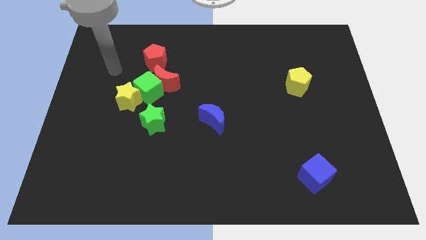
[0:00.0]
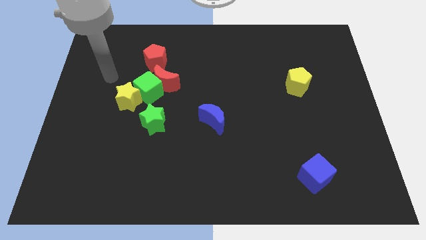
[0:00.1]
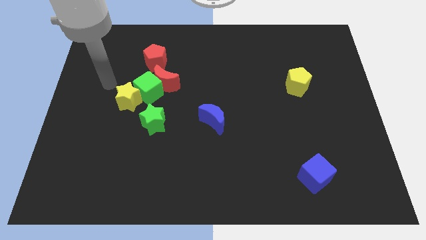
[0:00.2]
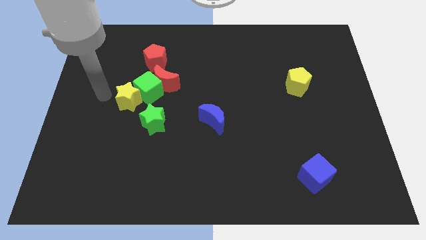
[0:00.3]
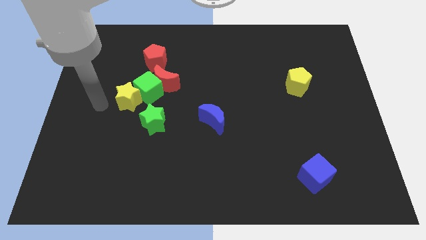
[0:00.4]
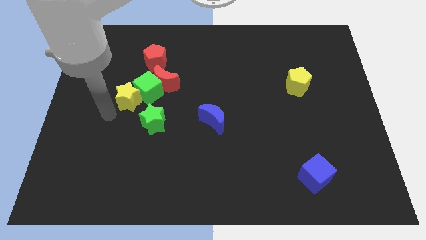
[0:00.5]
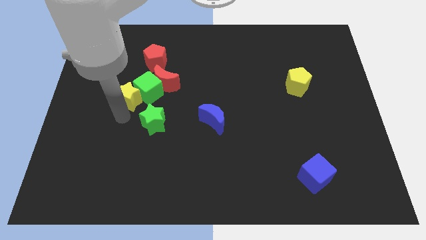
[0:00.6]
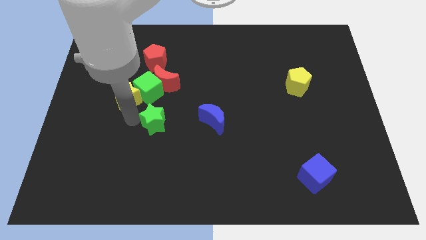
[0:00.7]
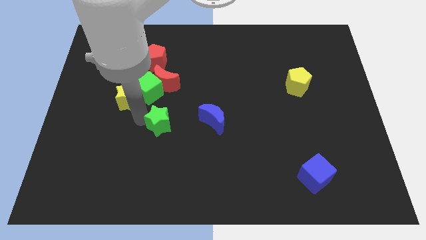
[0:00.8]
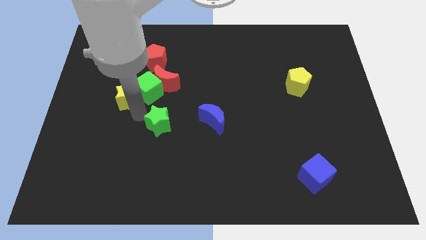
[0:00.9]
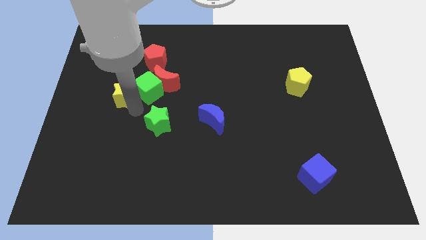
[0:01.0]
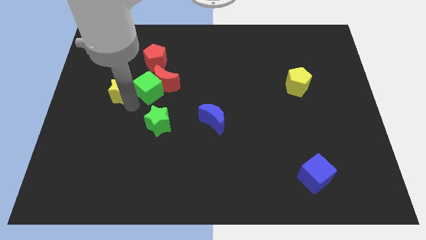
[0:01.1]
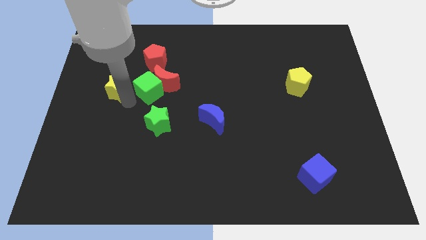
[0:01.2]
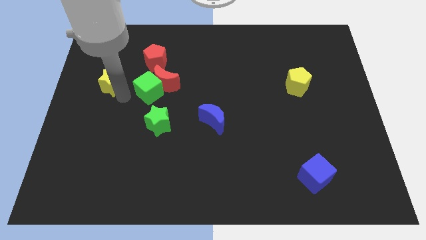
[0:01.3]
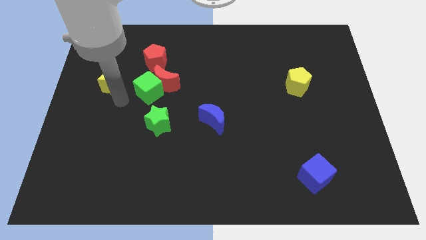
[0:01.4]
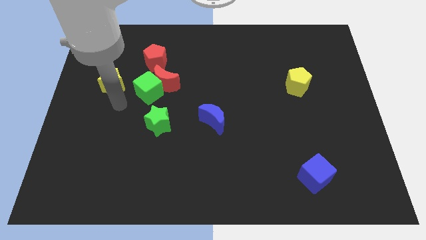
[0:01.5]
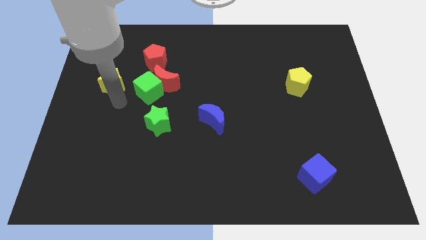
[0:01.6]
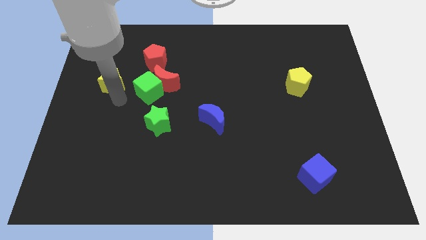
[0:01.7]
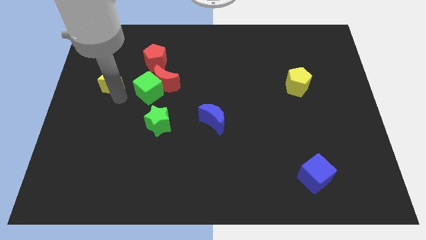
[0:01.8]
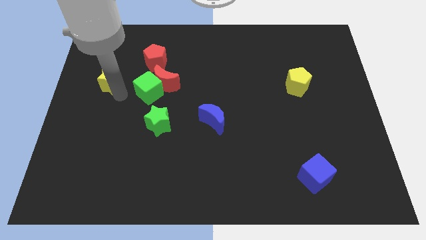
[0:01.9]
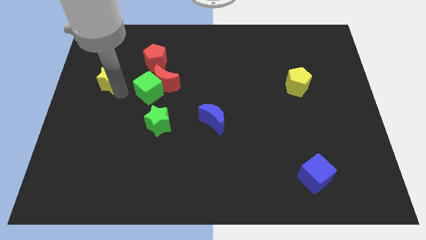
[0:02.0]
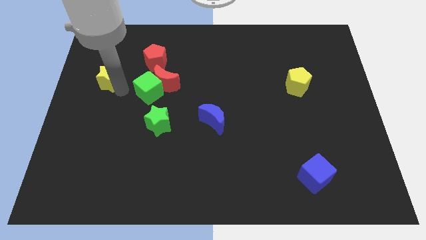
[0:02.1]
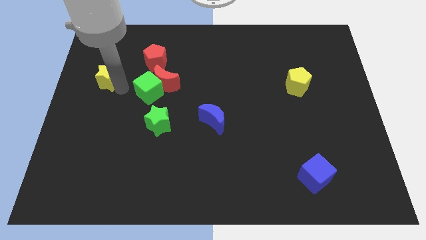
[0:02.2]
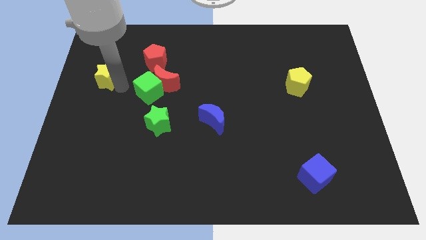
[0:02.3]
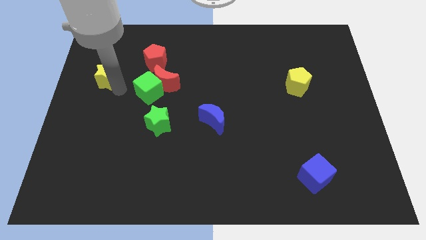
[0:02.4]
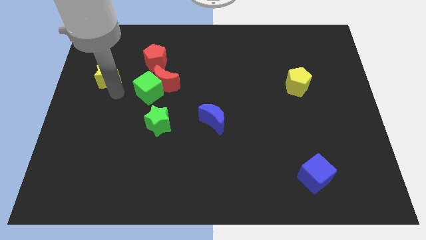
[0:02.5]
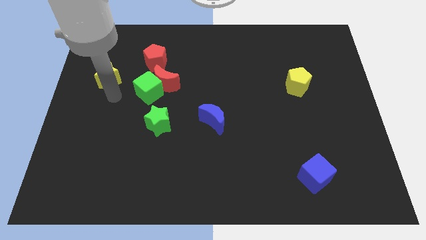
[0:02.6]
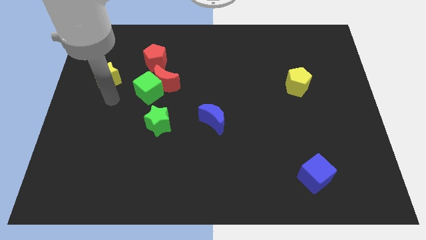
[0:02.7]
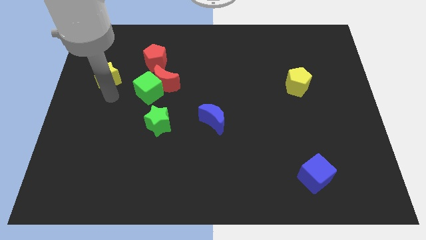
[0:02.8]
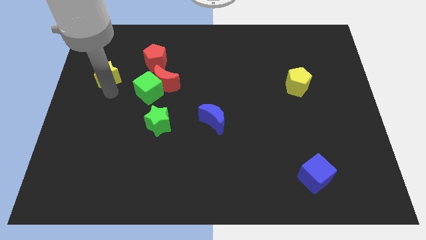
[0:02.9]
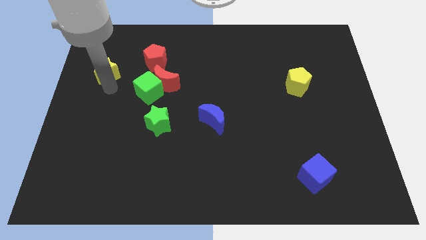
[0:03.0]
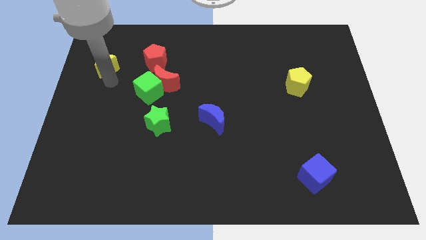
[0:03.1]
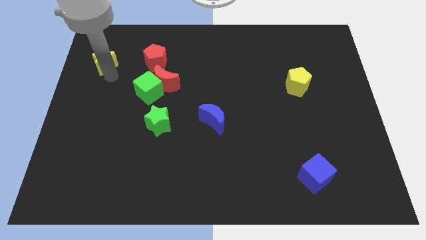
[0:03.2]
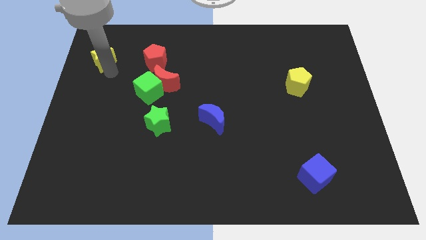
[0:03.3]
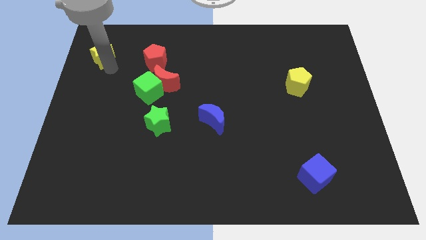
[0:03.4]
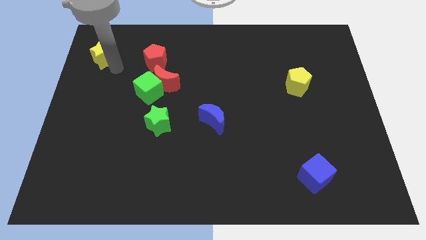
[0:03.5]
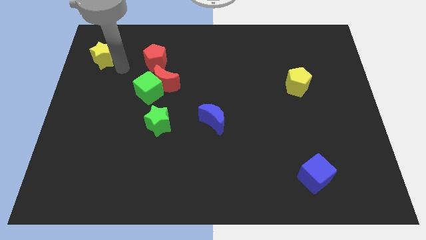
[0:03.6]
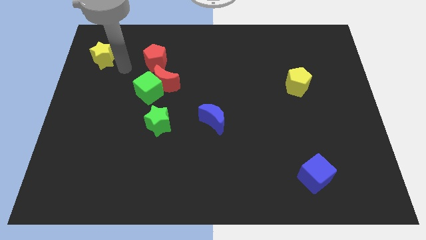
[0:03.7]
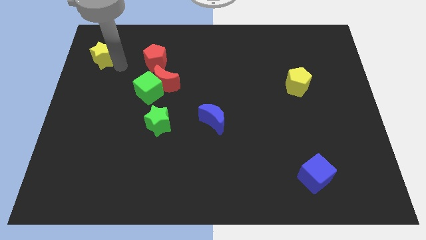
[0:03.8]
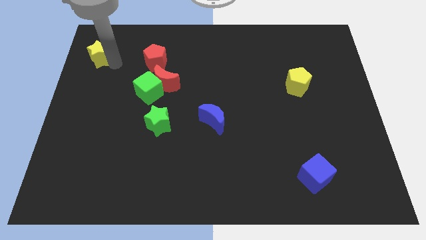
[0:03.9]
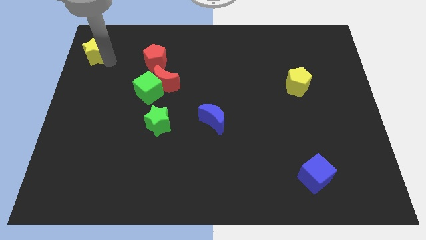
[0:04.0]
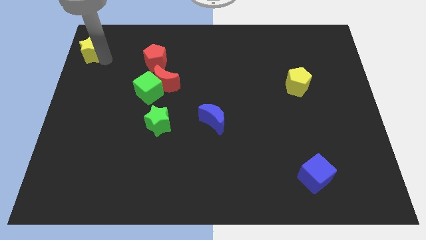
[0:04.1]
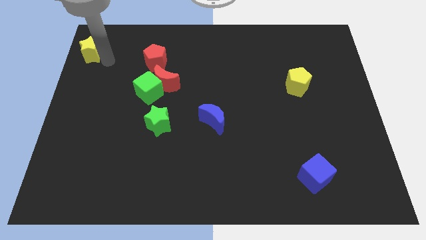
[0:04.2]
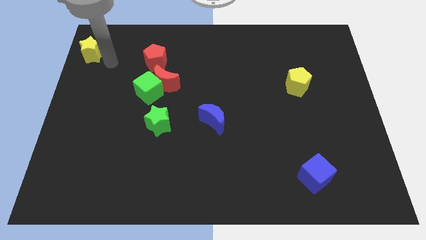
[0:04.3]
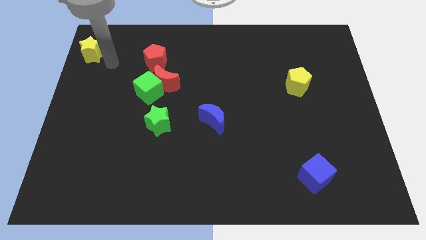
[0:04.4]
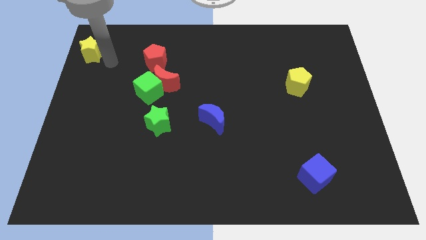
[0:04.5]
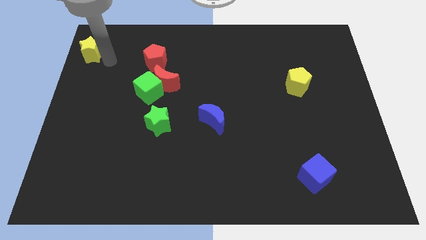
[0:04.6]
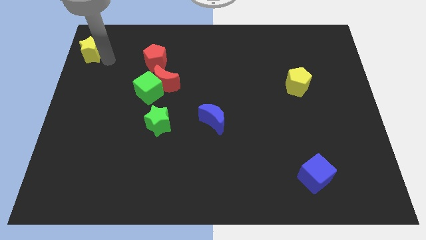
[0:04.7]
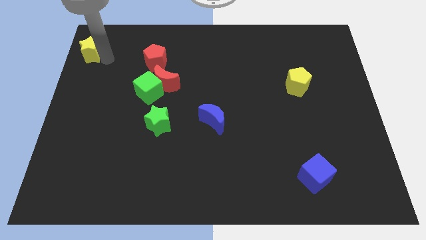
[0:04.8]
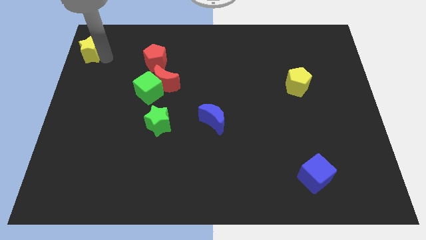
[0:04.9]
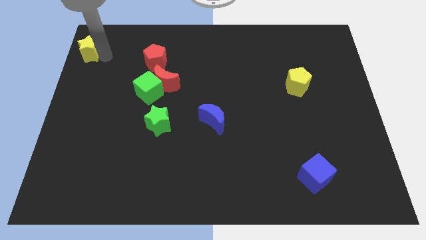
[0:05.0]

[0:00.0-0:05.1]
move the yellow star to the top left

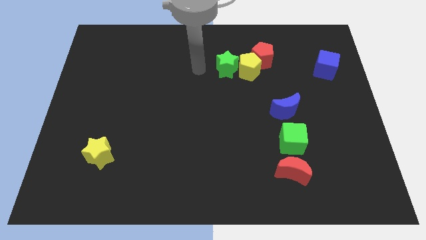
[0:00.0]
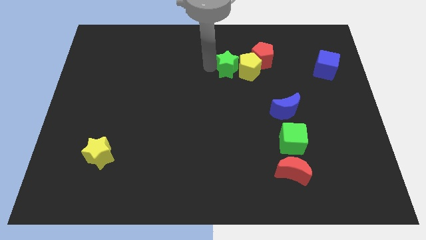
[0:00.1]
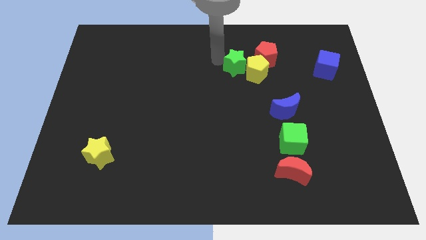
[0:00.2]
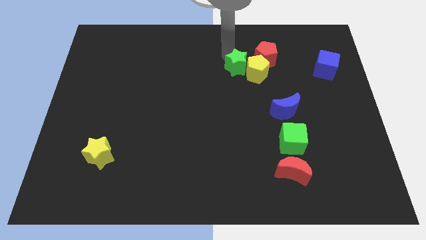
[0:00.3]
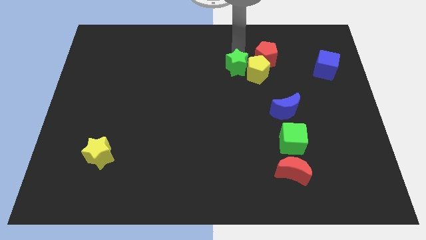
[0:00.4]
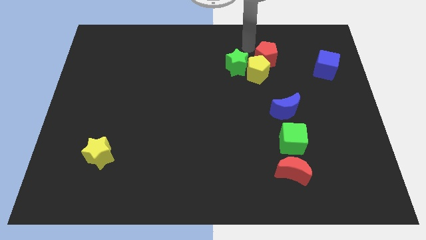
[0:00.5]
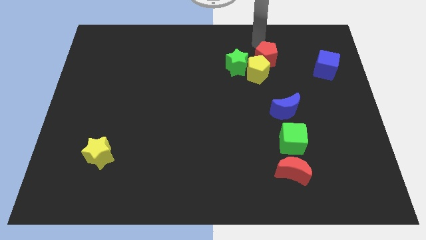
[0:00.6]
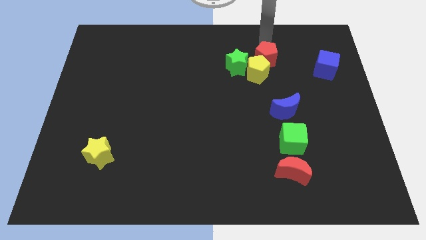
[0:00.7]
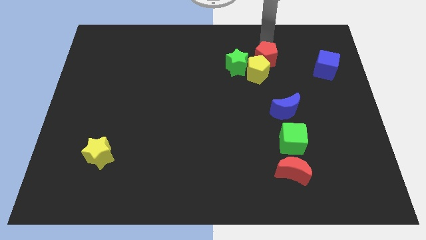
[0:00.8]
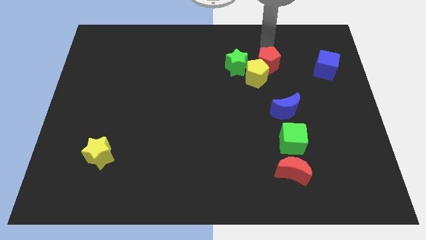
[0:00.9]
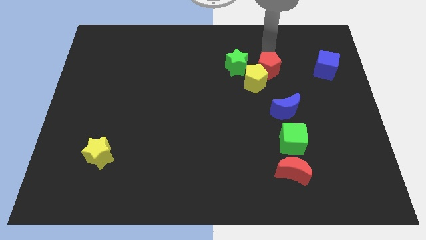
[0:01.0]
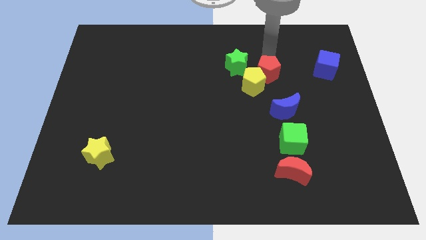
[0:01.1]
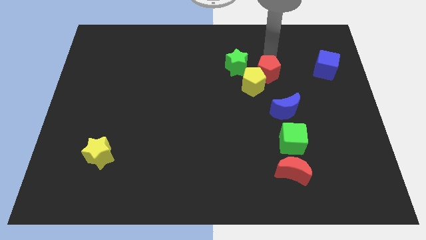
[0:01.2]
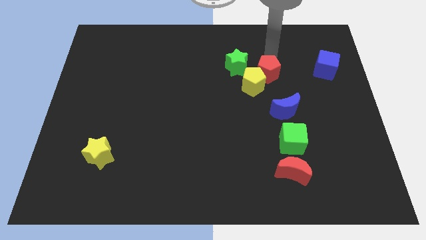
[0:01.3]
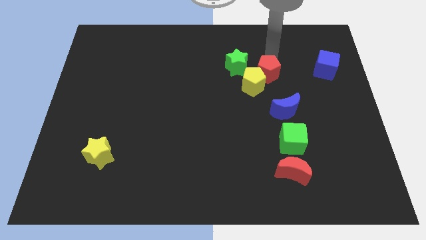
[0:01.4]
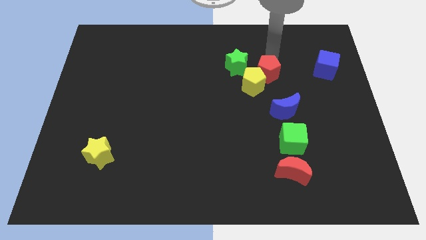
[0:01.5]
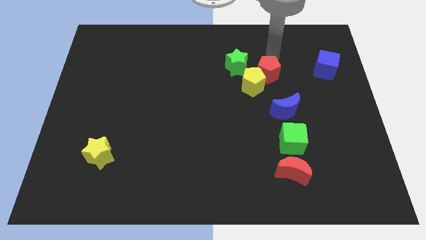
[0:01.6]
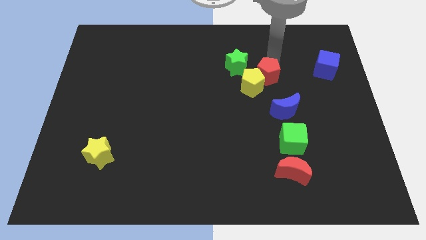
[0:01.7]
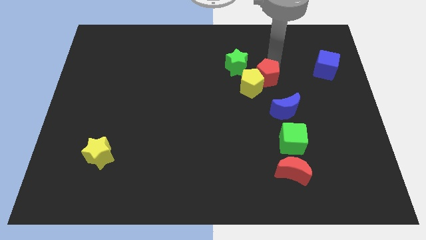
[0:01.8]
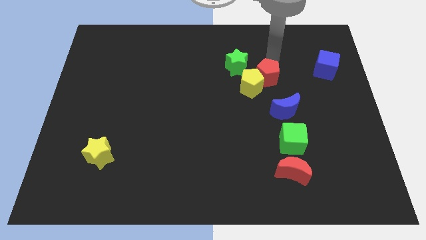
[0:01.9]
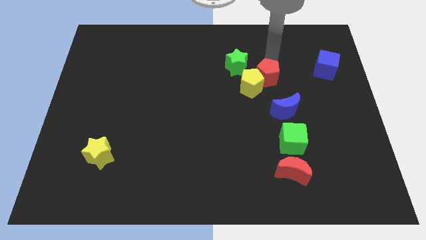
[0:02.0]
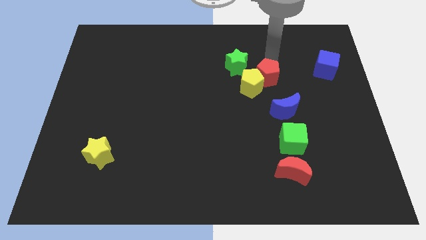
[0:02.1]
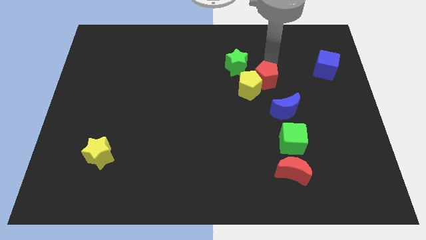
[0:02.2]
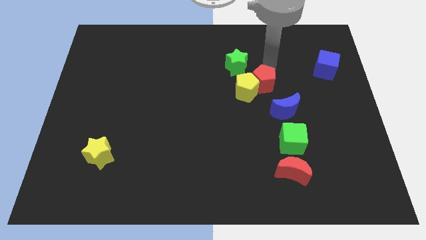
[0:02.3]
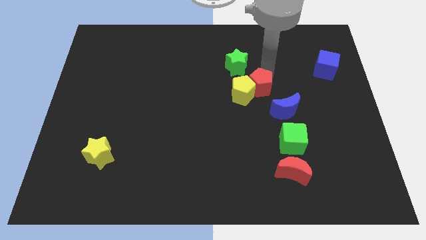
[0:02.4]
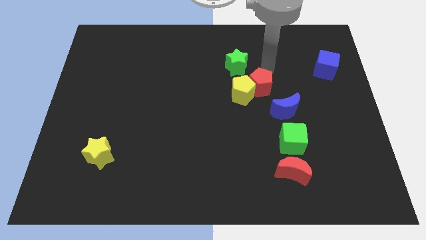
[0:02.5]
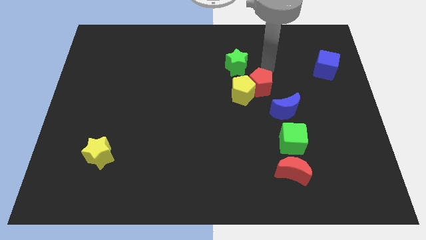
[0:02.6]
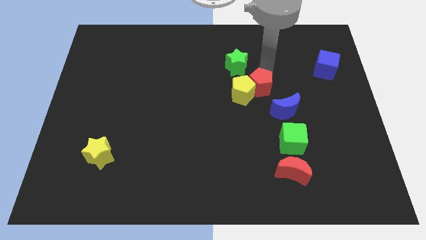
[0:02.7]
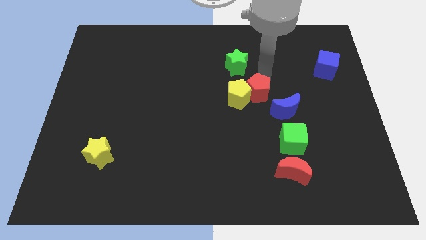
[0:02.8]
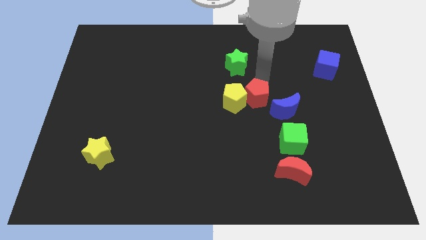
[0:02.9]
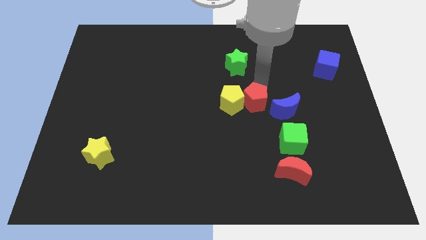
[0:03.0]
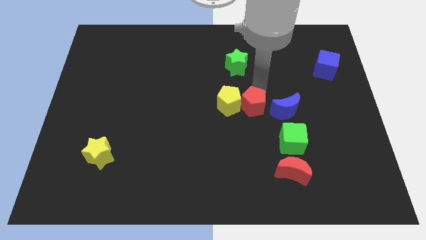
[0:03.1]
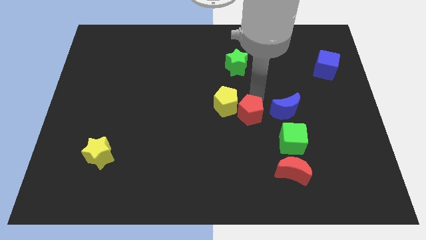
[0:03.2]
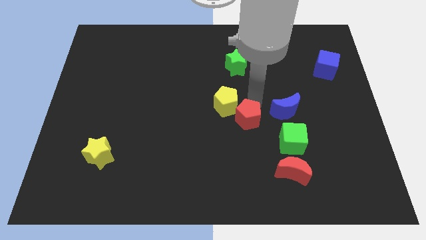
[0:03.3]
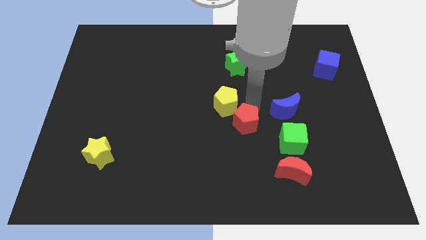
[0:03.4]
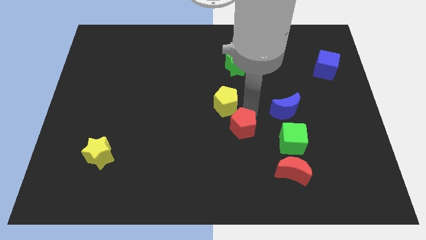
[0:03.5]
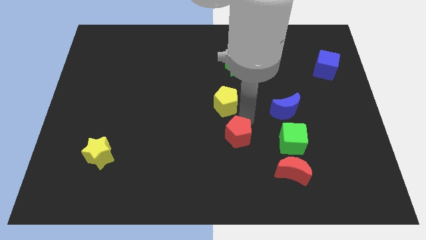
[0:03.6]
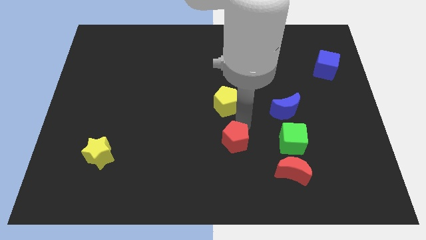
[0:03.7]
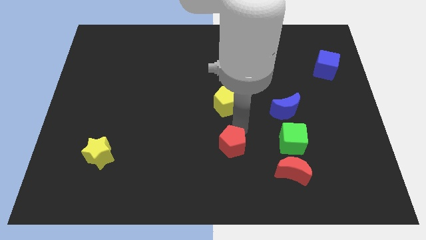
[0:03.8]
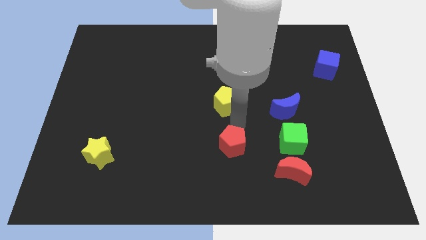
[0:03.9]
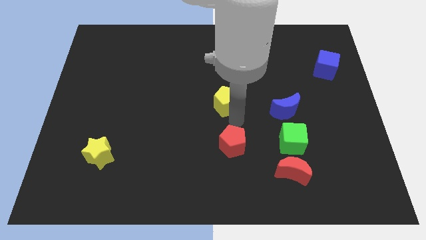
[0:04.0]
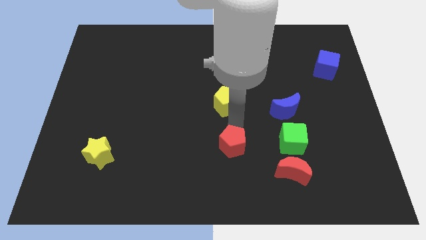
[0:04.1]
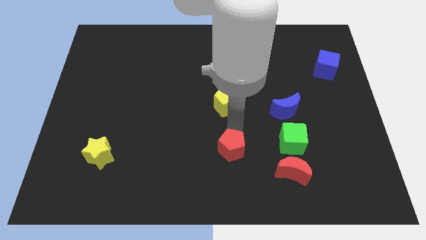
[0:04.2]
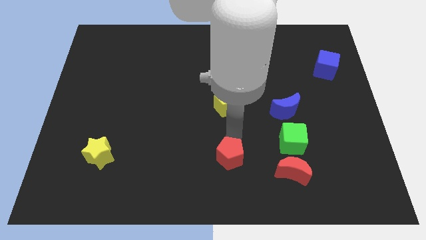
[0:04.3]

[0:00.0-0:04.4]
push the red pentagon to the bottom
